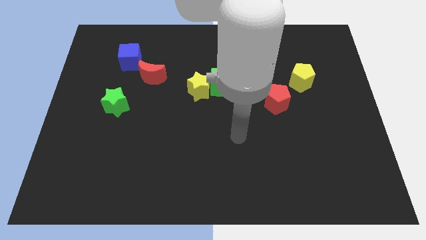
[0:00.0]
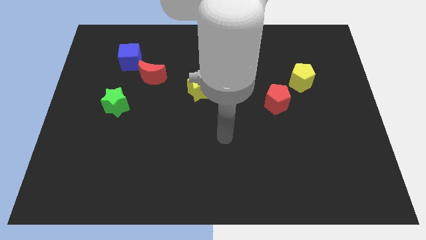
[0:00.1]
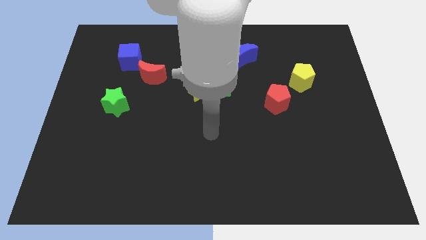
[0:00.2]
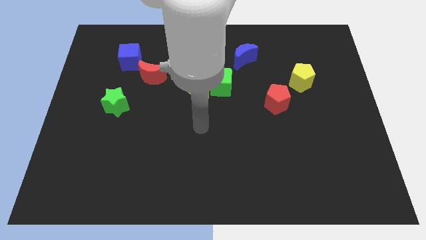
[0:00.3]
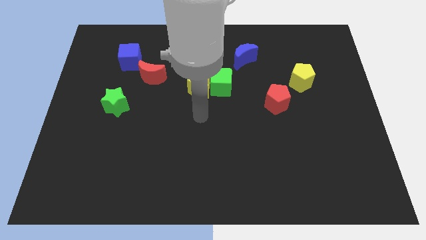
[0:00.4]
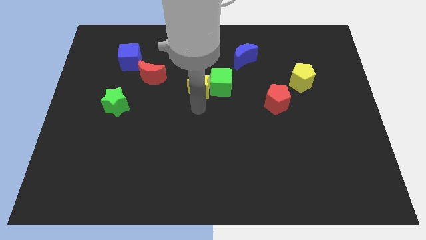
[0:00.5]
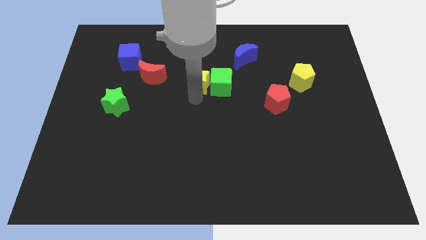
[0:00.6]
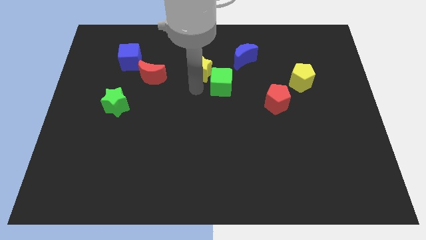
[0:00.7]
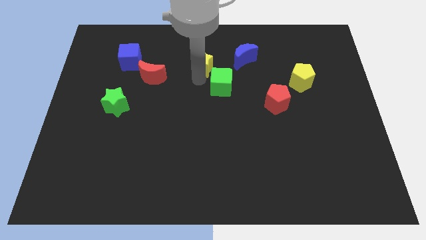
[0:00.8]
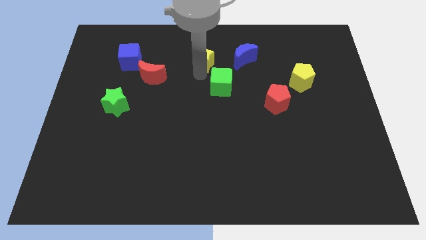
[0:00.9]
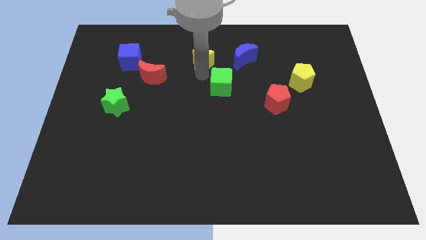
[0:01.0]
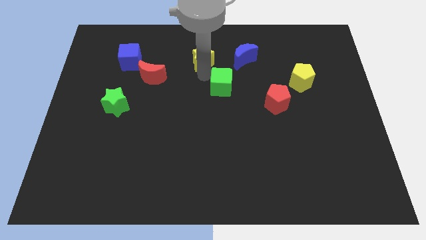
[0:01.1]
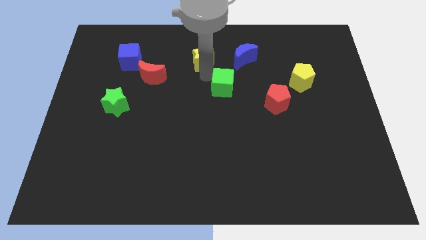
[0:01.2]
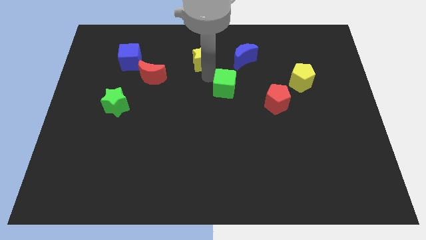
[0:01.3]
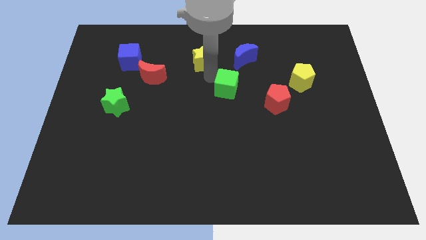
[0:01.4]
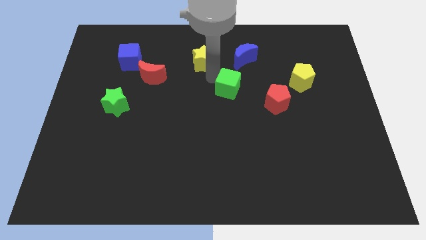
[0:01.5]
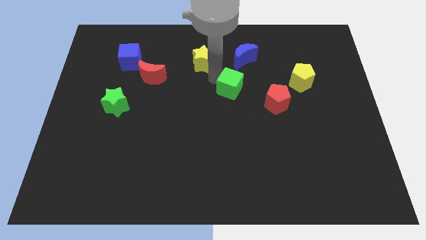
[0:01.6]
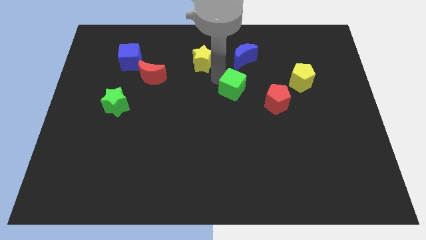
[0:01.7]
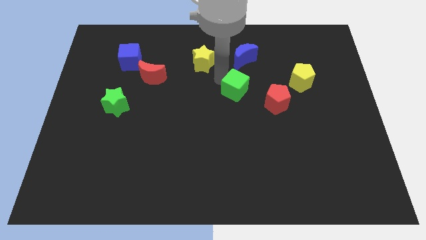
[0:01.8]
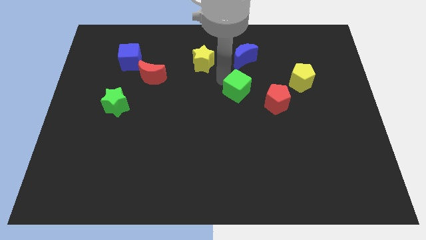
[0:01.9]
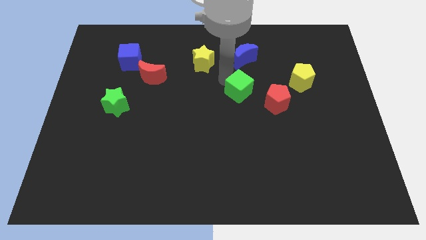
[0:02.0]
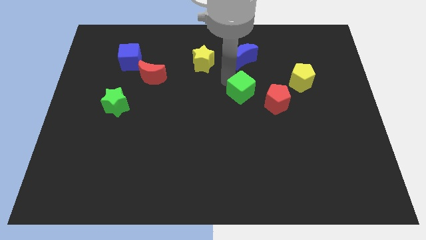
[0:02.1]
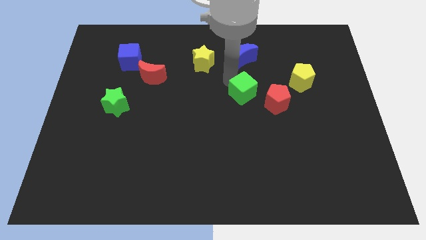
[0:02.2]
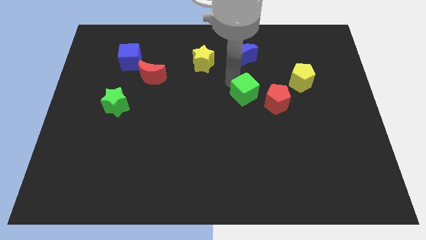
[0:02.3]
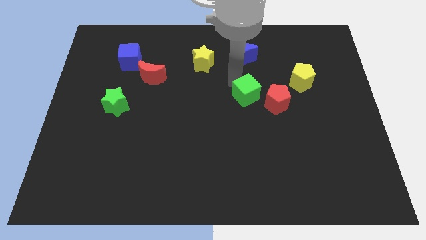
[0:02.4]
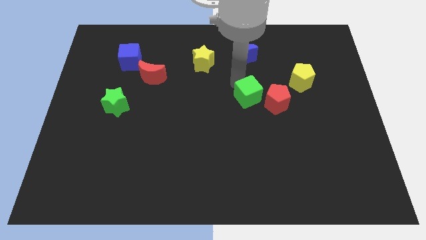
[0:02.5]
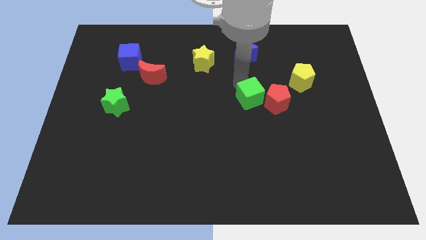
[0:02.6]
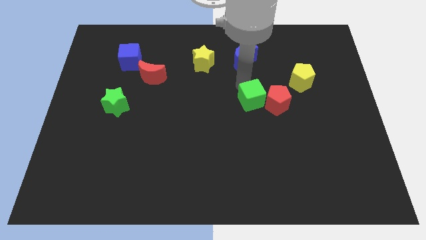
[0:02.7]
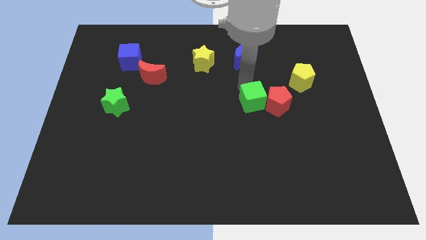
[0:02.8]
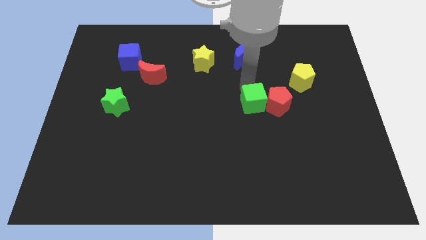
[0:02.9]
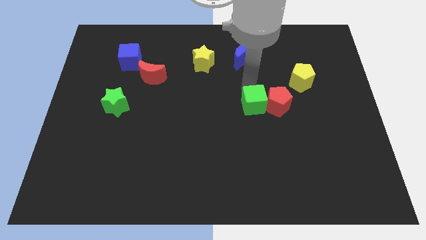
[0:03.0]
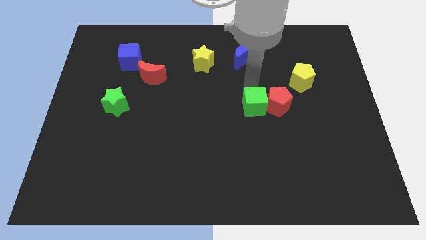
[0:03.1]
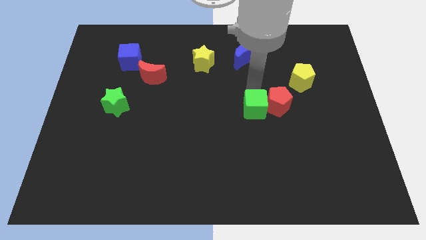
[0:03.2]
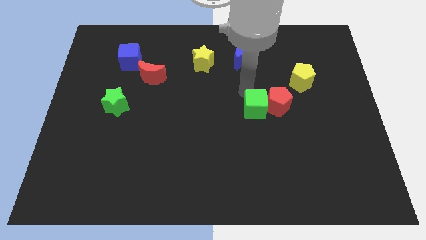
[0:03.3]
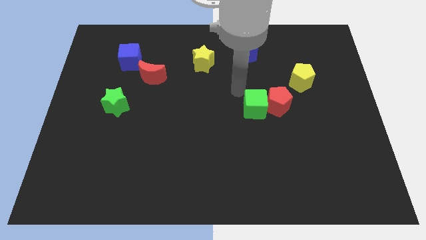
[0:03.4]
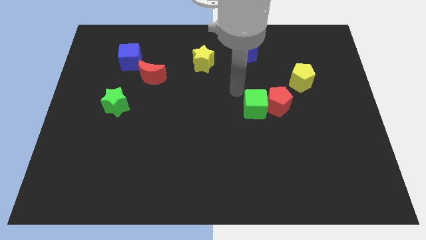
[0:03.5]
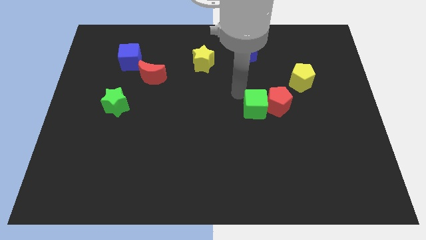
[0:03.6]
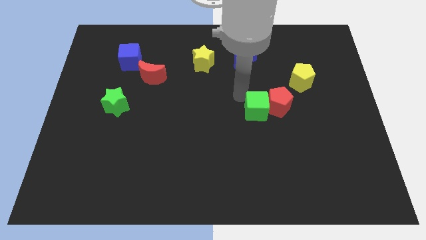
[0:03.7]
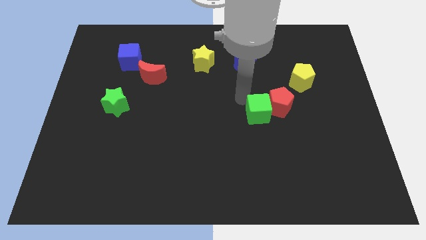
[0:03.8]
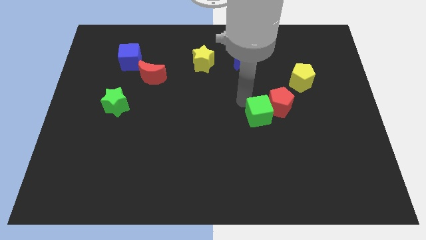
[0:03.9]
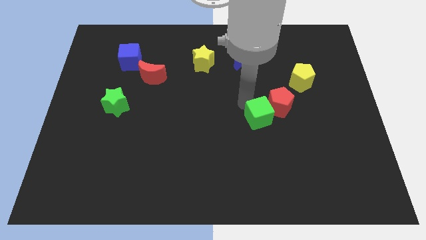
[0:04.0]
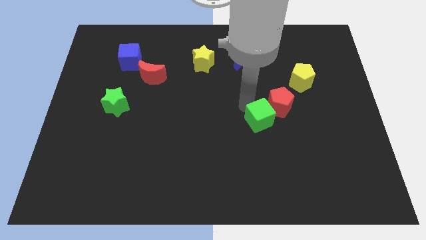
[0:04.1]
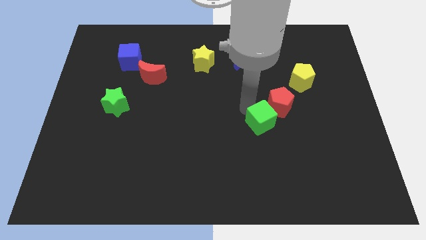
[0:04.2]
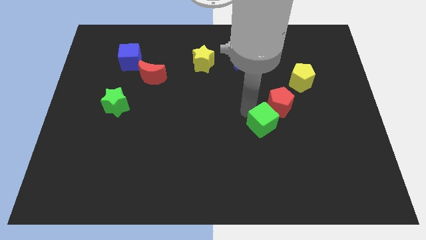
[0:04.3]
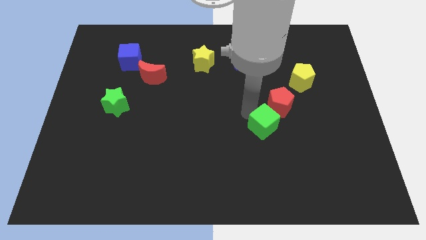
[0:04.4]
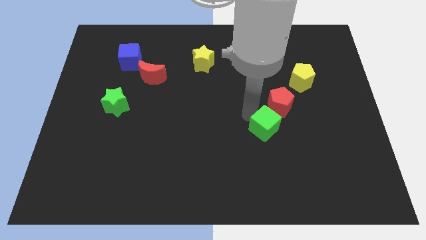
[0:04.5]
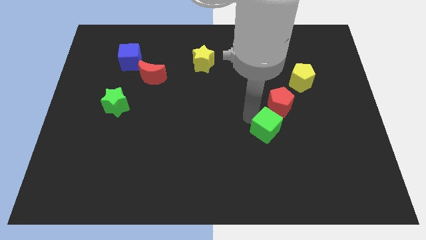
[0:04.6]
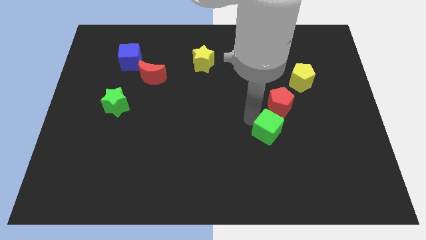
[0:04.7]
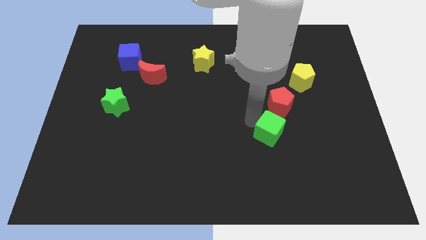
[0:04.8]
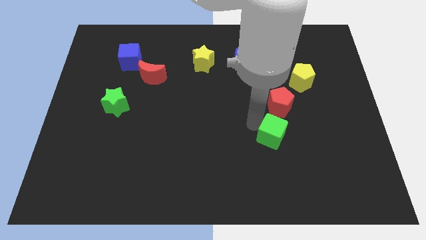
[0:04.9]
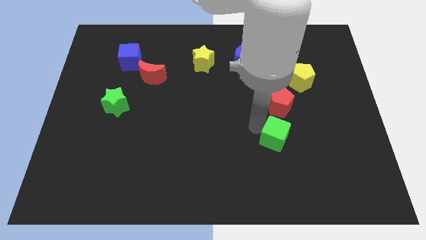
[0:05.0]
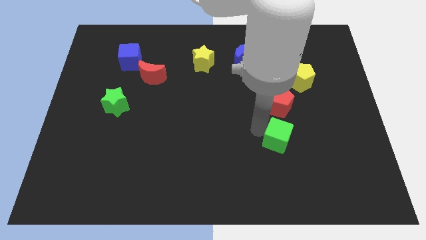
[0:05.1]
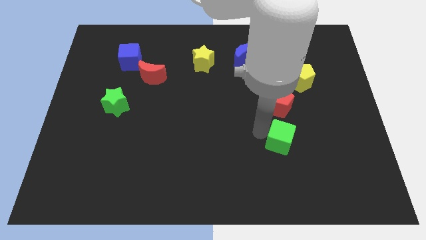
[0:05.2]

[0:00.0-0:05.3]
push the green cube downwards and right diagonally

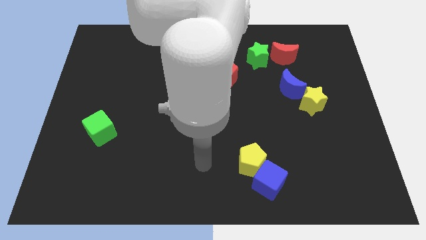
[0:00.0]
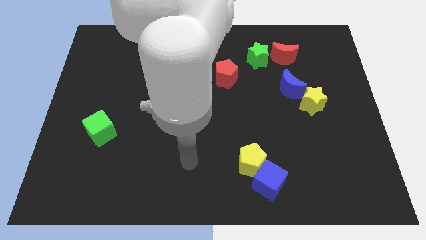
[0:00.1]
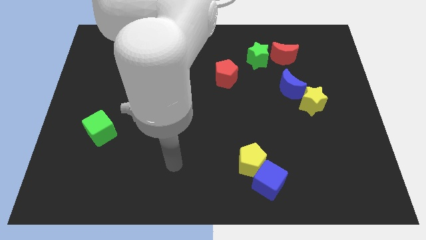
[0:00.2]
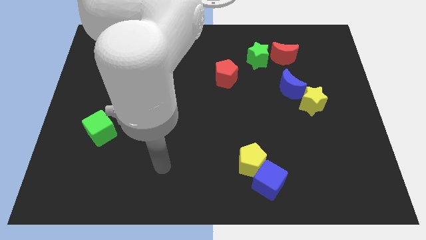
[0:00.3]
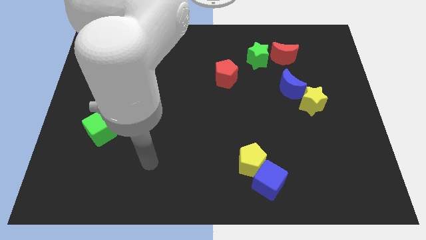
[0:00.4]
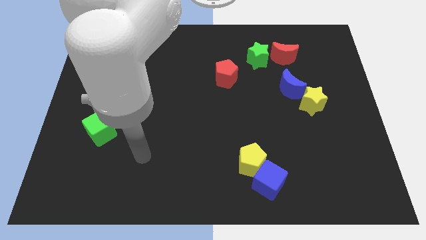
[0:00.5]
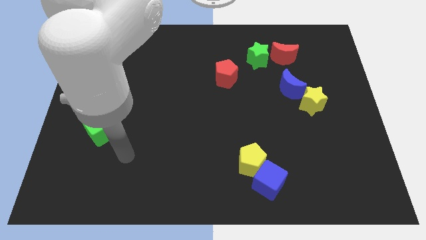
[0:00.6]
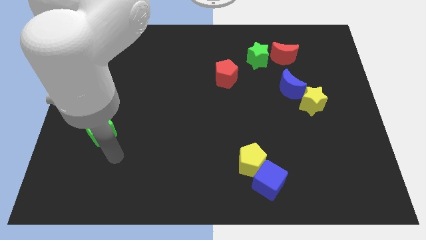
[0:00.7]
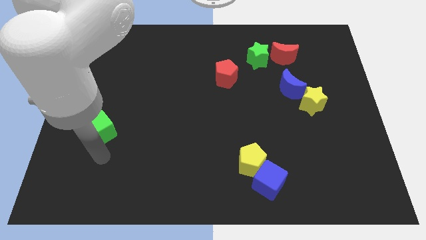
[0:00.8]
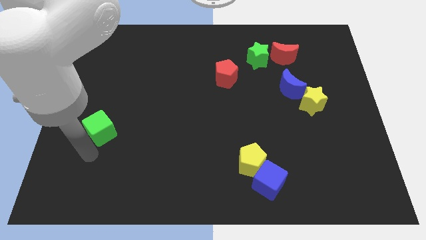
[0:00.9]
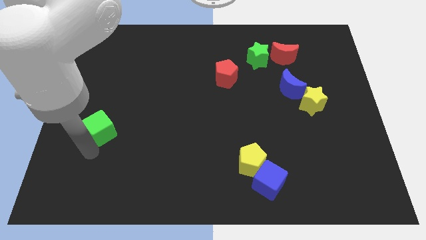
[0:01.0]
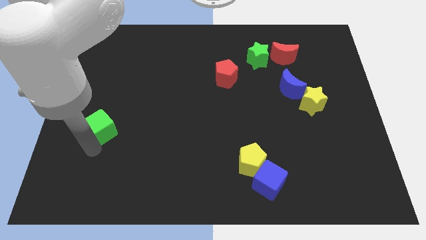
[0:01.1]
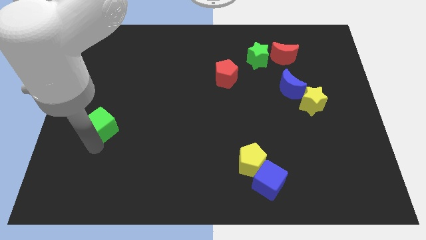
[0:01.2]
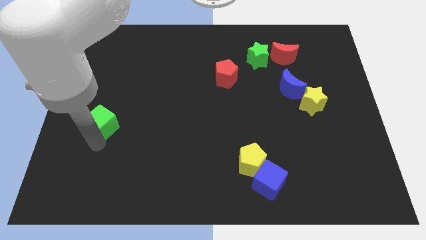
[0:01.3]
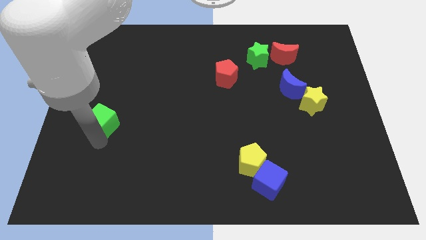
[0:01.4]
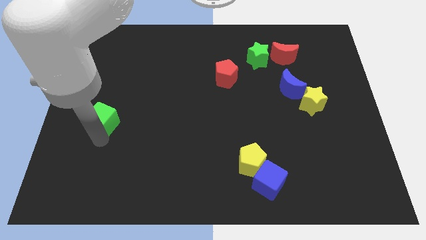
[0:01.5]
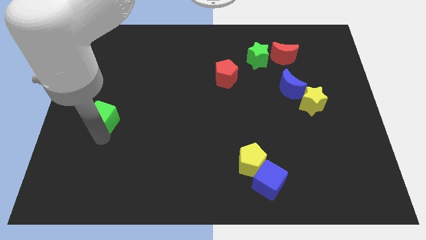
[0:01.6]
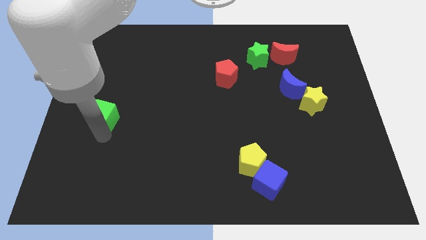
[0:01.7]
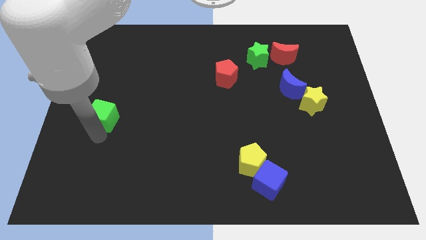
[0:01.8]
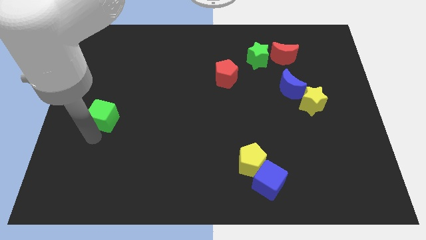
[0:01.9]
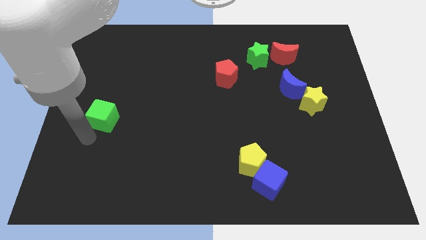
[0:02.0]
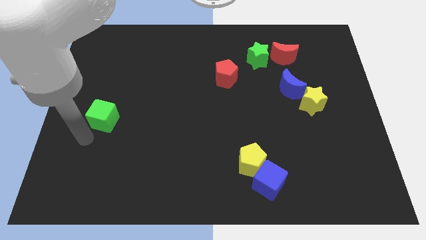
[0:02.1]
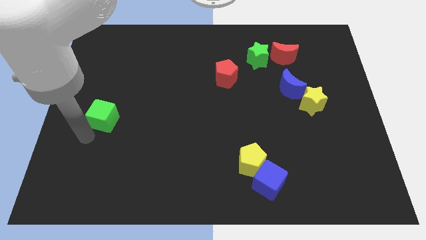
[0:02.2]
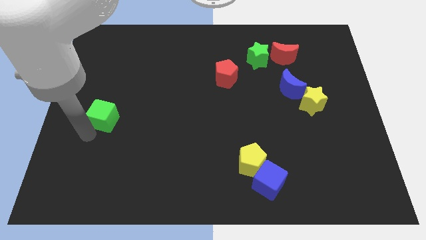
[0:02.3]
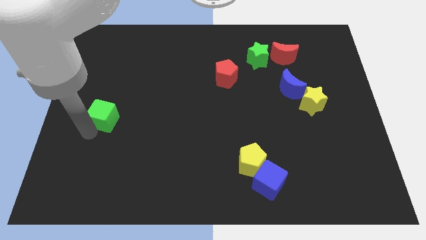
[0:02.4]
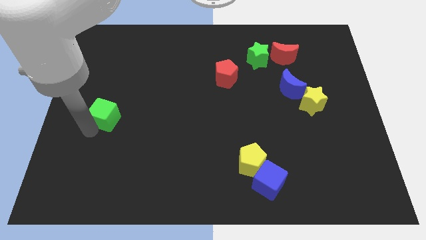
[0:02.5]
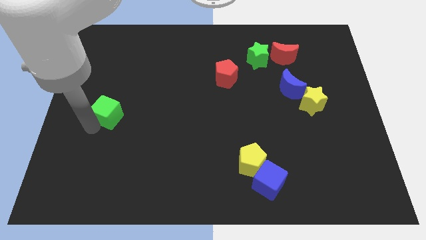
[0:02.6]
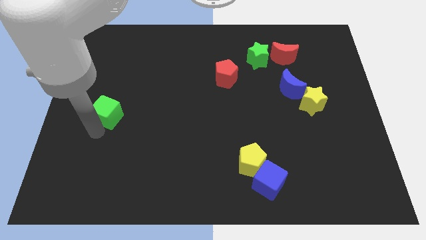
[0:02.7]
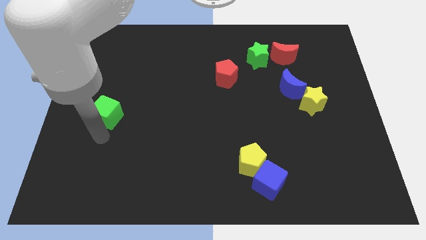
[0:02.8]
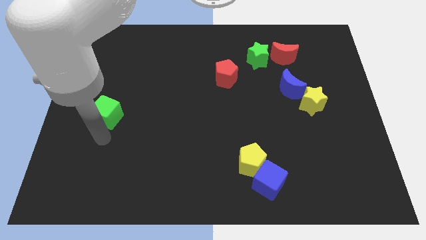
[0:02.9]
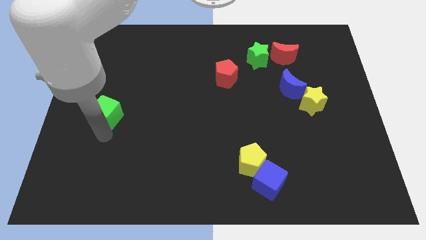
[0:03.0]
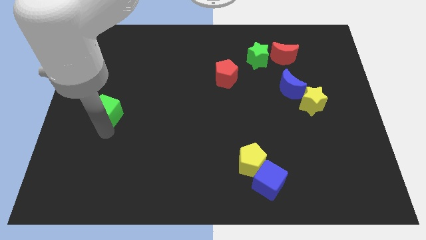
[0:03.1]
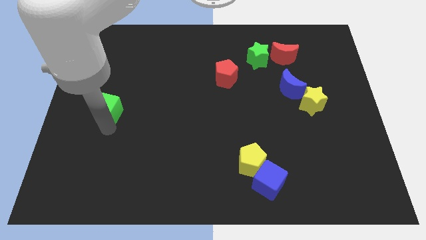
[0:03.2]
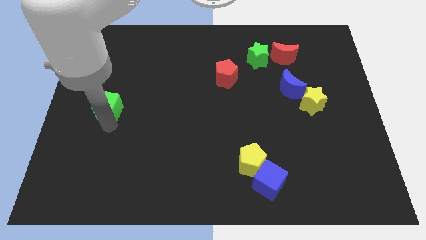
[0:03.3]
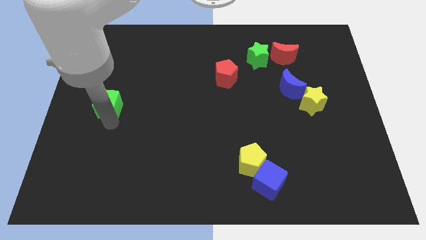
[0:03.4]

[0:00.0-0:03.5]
slightly slide the green cube upwards
